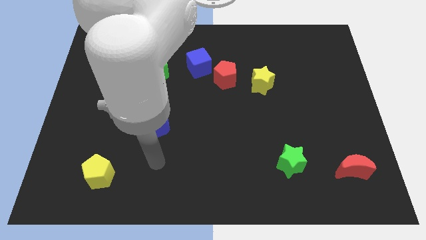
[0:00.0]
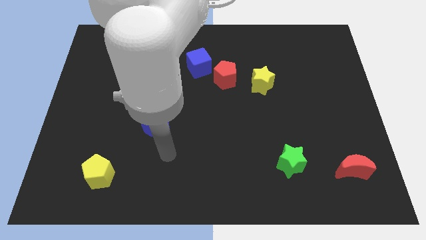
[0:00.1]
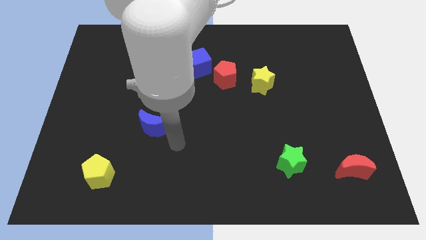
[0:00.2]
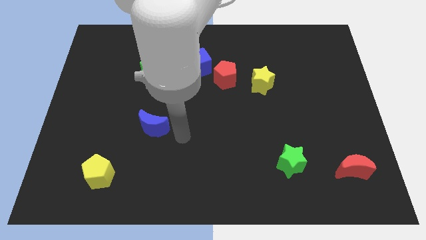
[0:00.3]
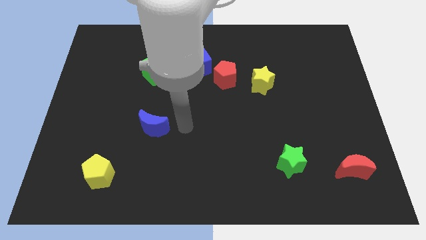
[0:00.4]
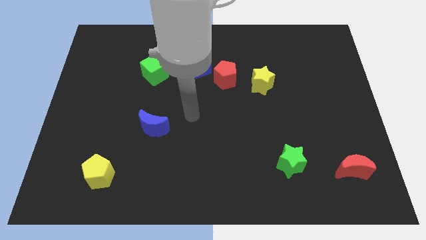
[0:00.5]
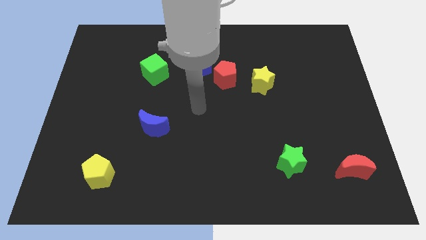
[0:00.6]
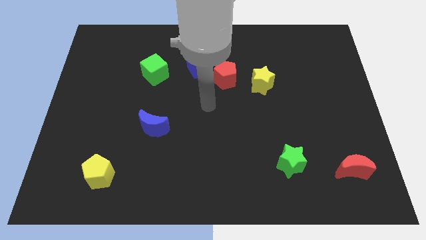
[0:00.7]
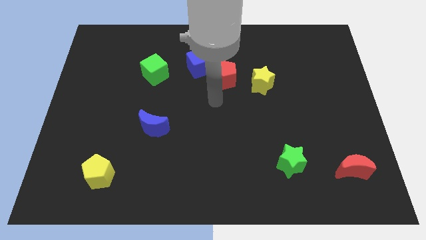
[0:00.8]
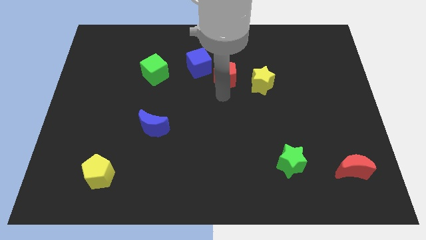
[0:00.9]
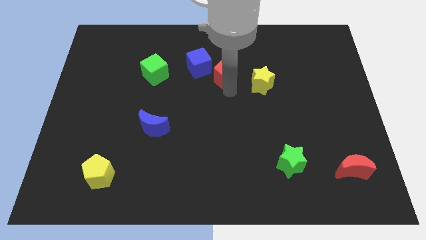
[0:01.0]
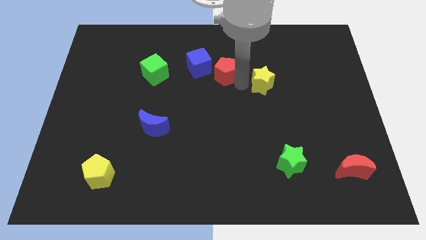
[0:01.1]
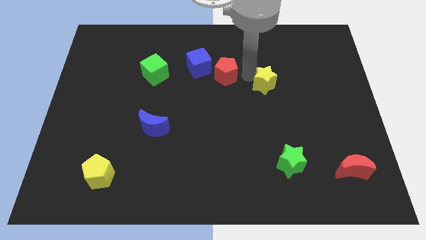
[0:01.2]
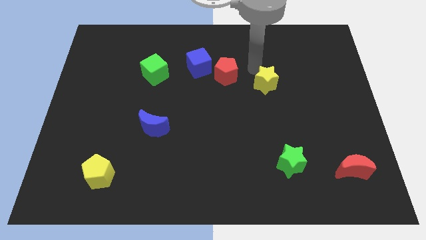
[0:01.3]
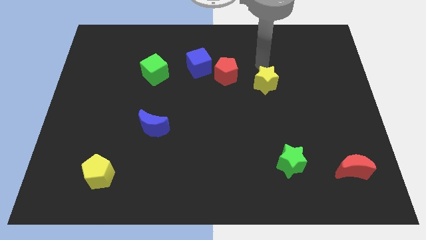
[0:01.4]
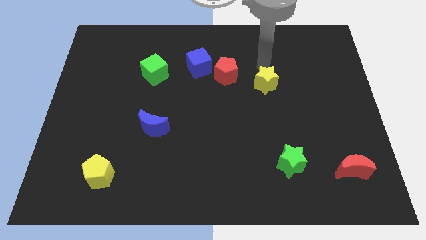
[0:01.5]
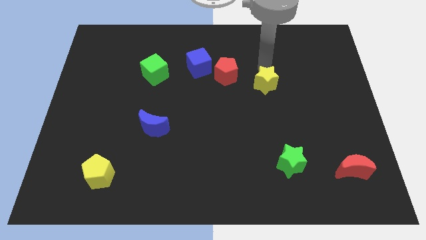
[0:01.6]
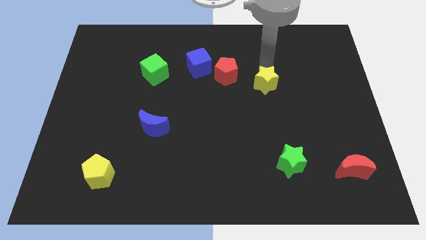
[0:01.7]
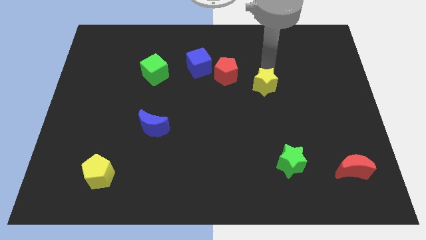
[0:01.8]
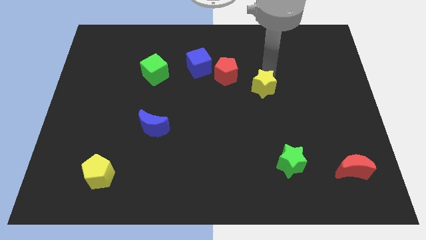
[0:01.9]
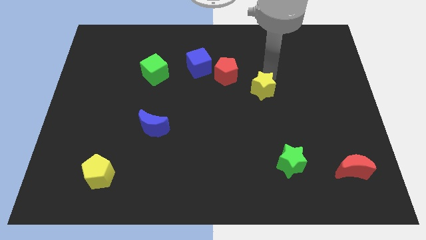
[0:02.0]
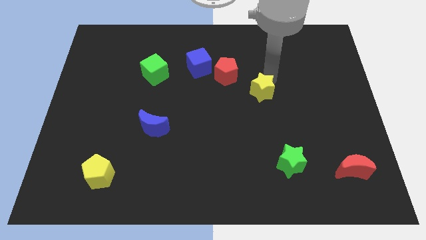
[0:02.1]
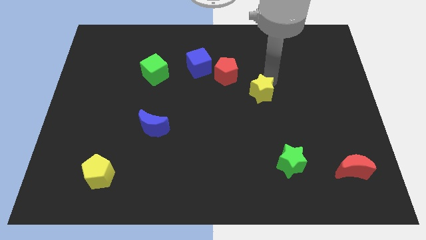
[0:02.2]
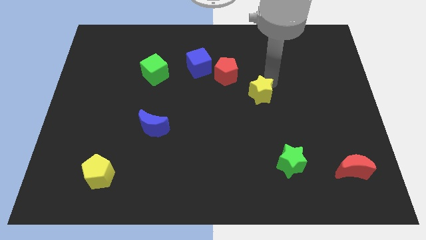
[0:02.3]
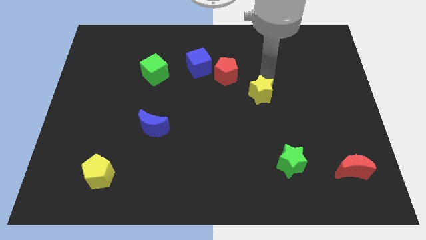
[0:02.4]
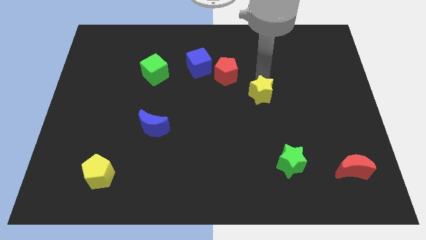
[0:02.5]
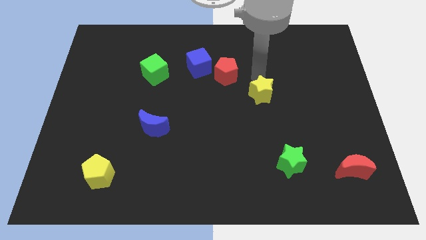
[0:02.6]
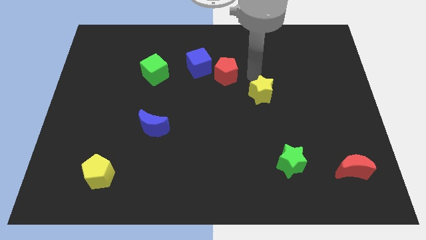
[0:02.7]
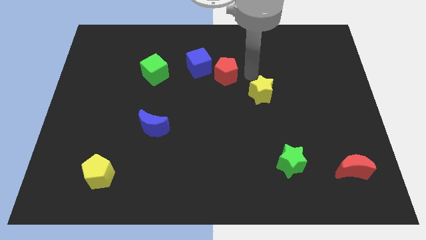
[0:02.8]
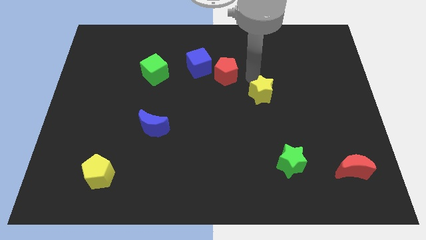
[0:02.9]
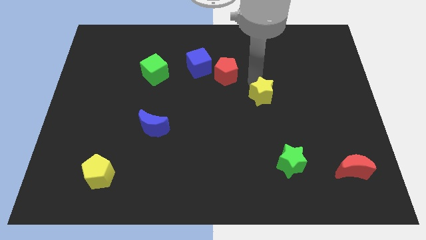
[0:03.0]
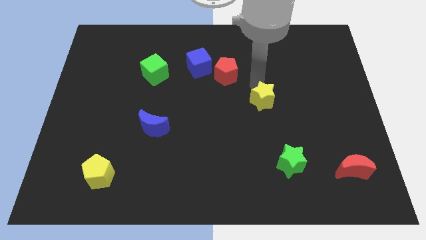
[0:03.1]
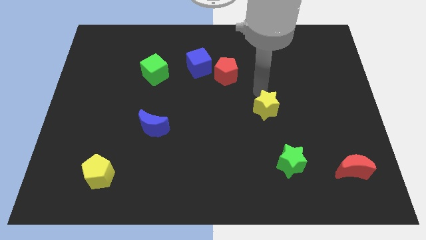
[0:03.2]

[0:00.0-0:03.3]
slightly move the yellow star down

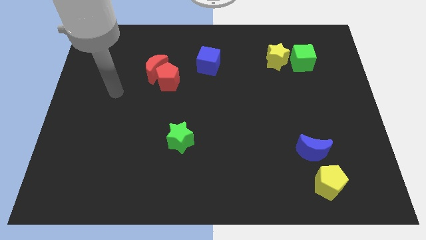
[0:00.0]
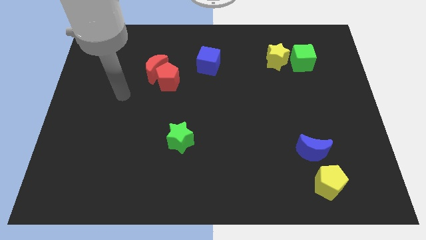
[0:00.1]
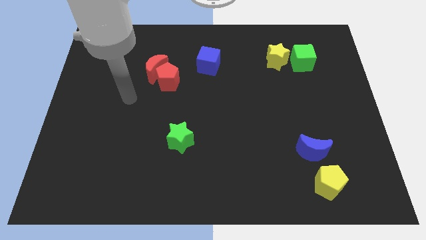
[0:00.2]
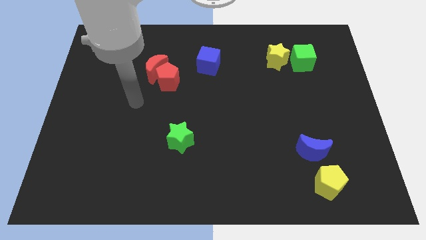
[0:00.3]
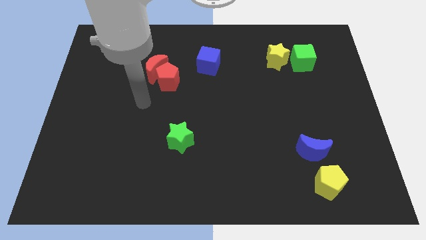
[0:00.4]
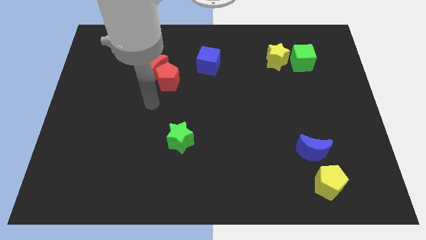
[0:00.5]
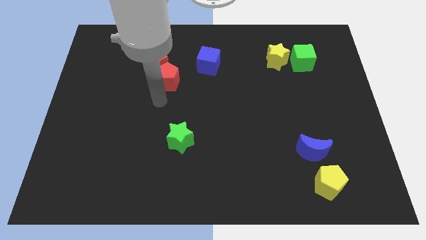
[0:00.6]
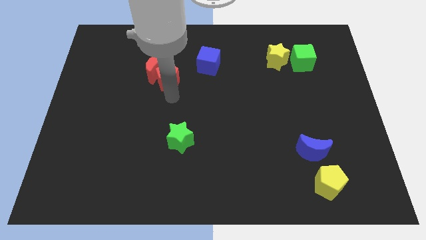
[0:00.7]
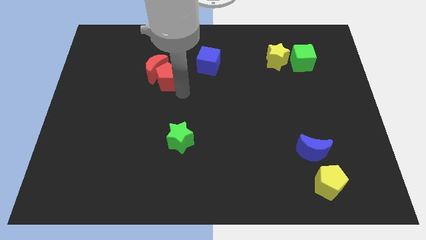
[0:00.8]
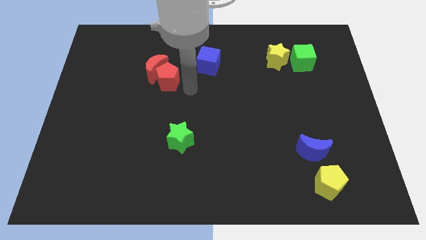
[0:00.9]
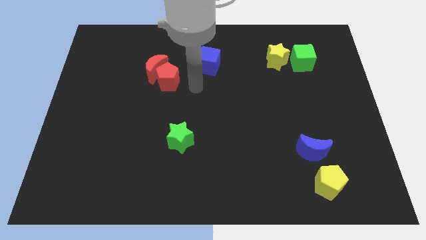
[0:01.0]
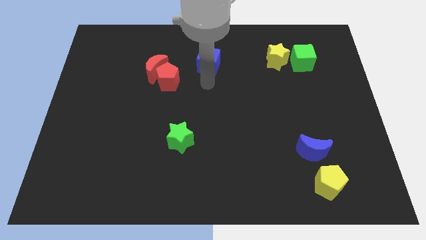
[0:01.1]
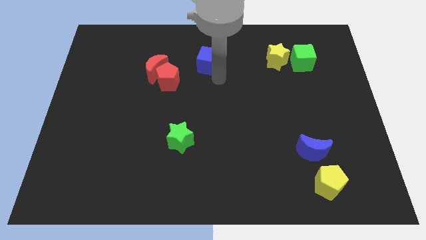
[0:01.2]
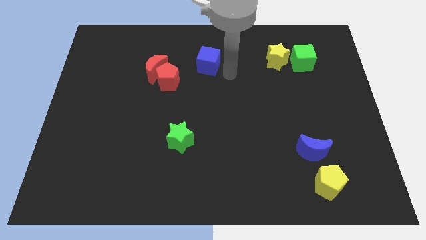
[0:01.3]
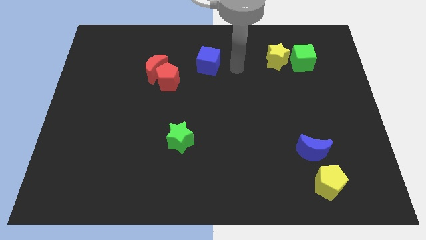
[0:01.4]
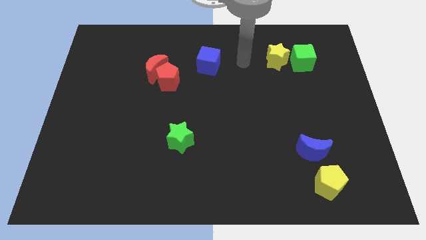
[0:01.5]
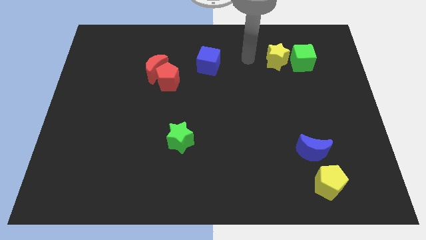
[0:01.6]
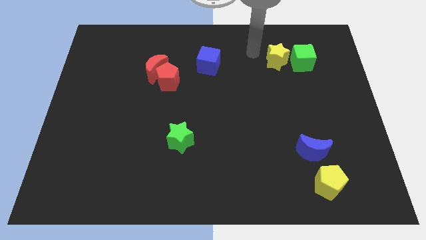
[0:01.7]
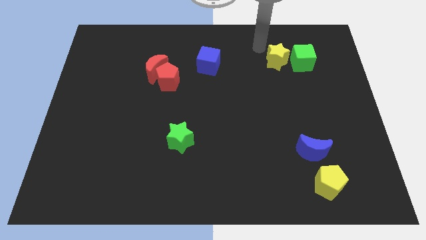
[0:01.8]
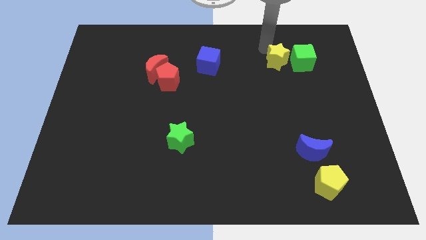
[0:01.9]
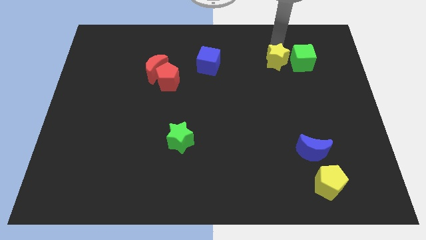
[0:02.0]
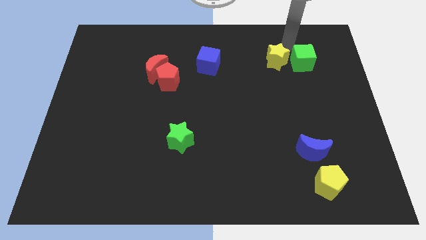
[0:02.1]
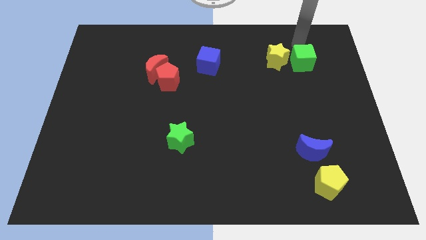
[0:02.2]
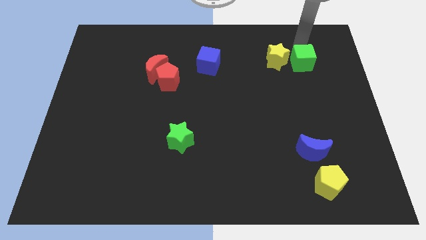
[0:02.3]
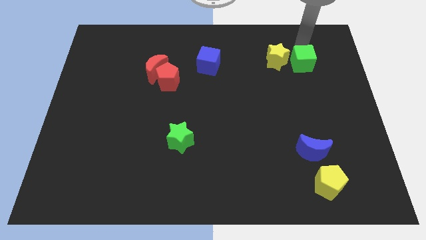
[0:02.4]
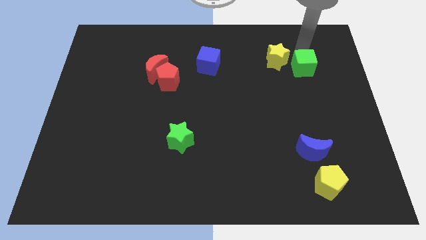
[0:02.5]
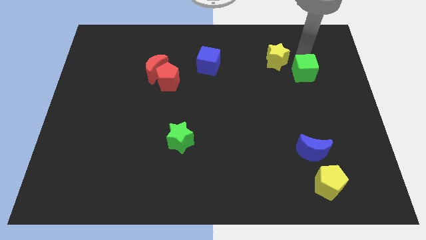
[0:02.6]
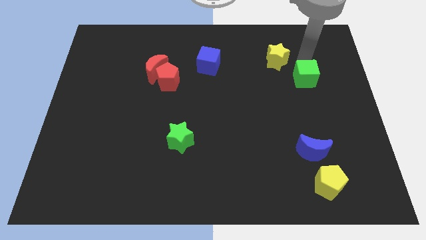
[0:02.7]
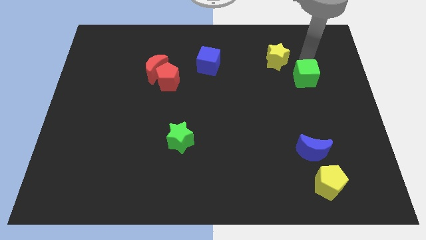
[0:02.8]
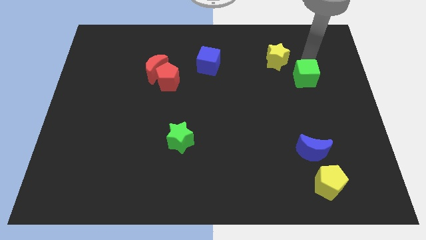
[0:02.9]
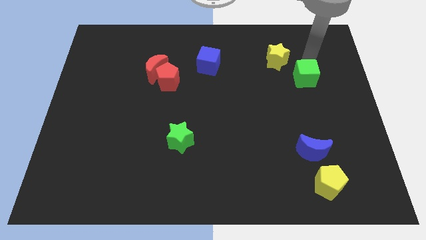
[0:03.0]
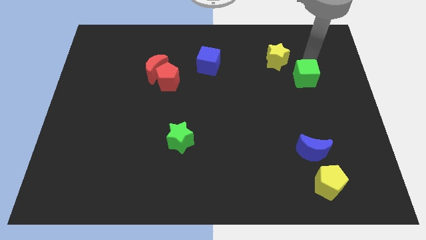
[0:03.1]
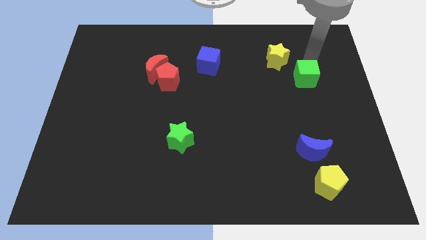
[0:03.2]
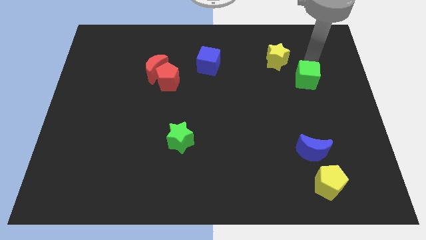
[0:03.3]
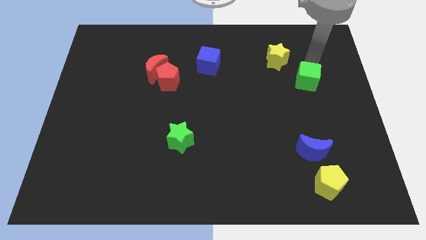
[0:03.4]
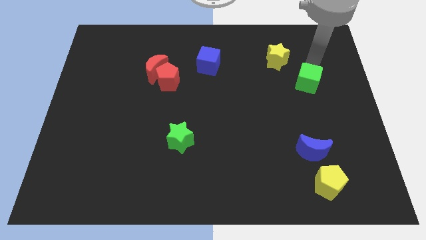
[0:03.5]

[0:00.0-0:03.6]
slightly push the green cube down

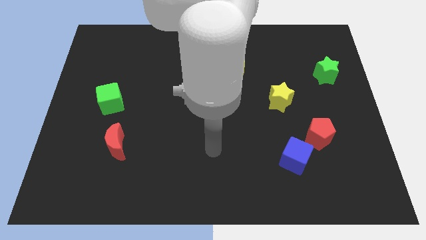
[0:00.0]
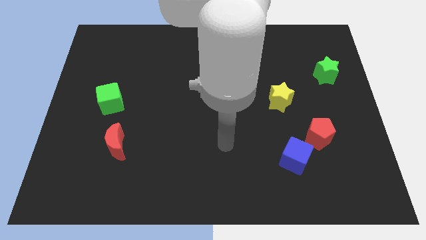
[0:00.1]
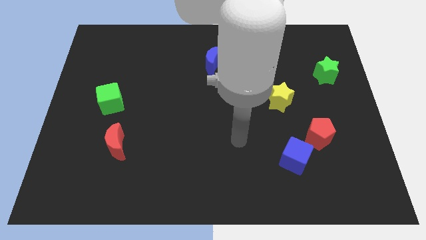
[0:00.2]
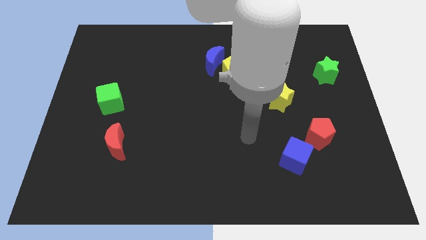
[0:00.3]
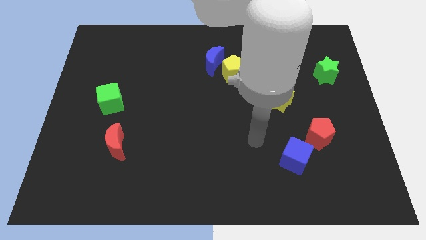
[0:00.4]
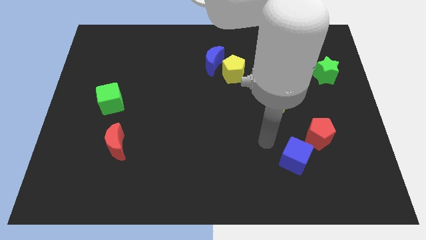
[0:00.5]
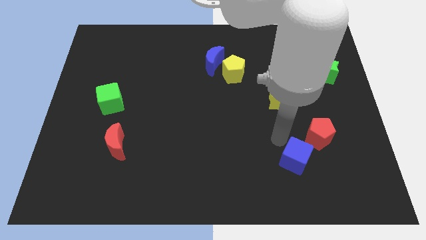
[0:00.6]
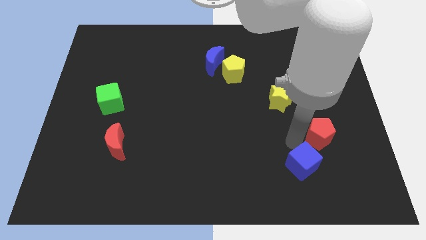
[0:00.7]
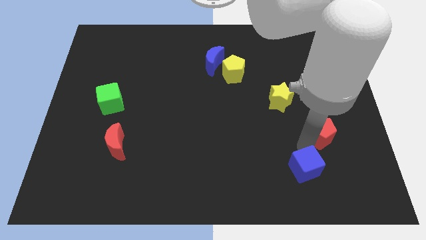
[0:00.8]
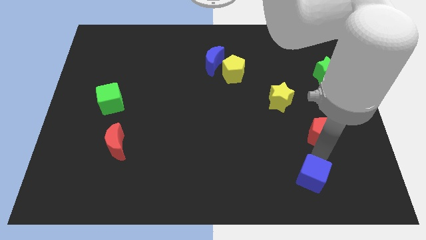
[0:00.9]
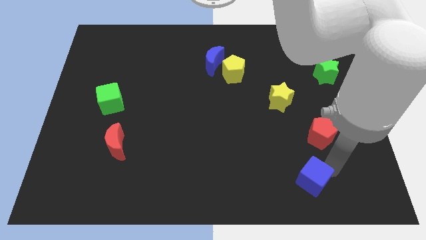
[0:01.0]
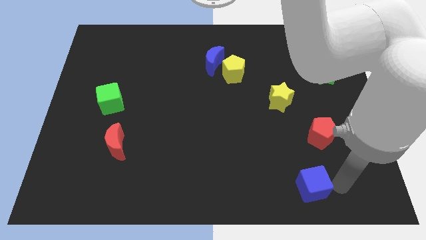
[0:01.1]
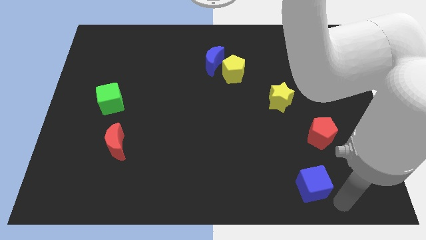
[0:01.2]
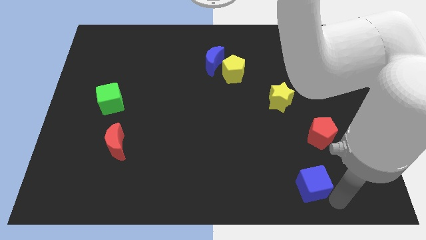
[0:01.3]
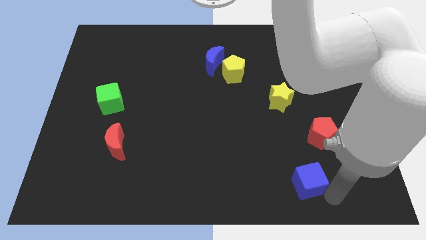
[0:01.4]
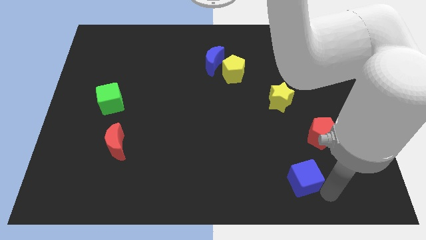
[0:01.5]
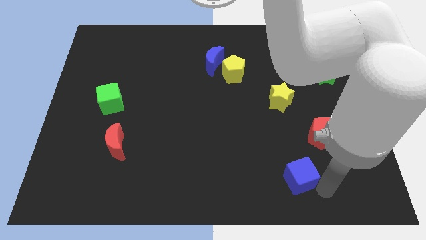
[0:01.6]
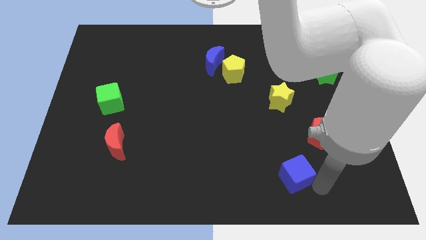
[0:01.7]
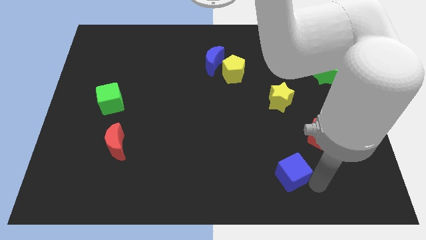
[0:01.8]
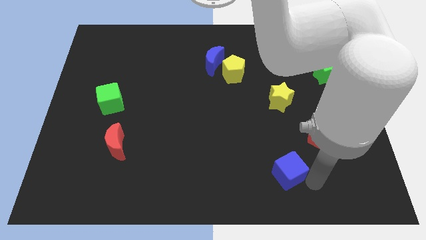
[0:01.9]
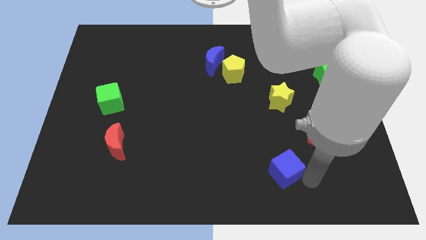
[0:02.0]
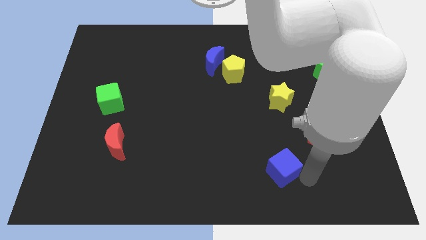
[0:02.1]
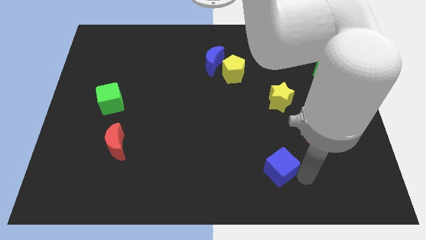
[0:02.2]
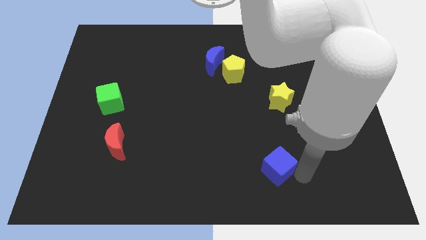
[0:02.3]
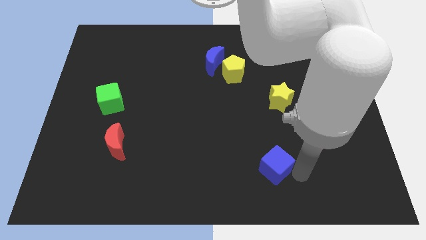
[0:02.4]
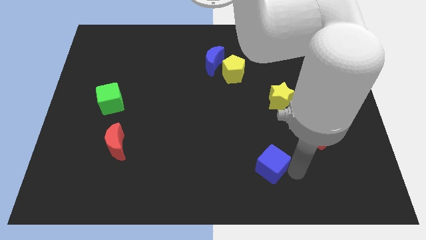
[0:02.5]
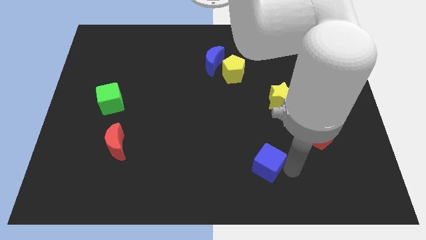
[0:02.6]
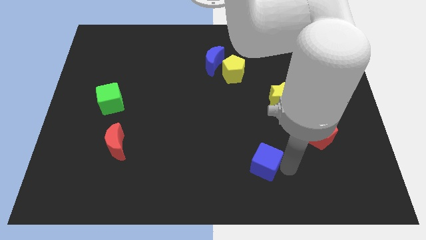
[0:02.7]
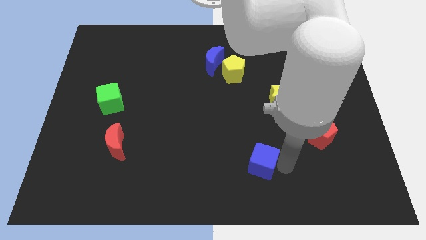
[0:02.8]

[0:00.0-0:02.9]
move the blue cube to the left a little
